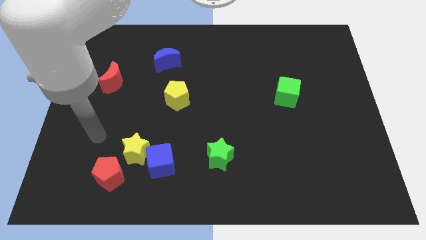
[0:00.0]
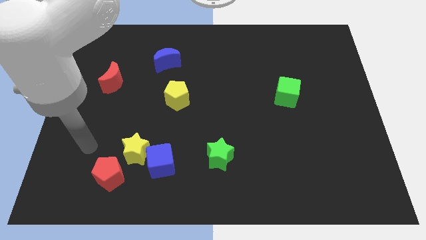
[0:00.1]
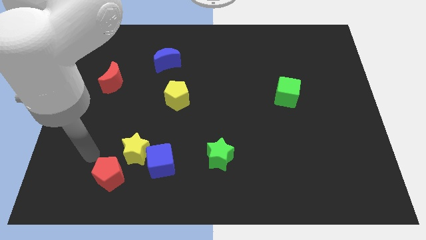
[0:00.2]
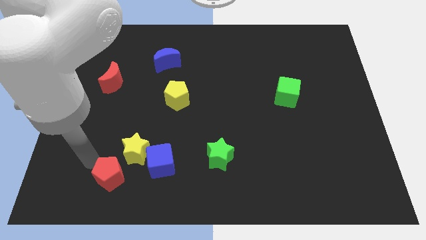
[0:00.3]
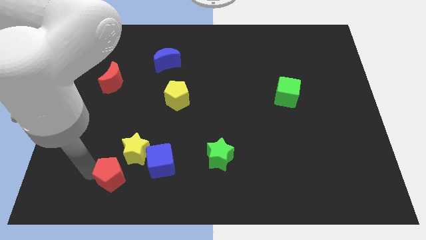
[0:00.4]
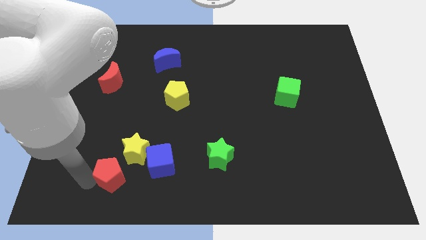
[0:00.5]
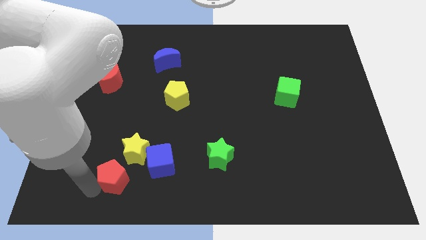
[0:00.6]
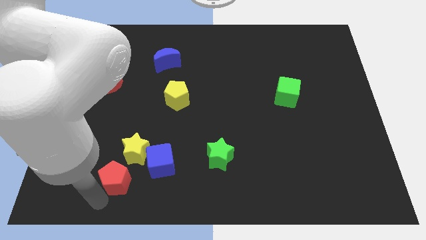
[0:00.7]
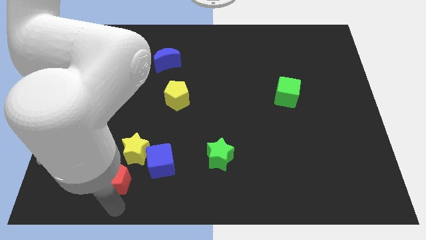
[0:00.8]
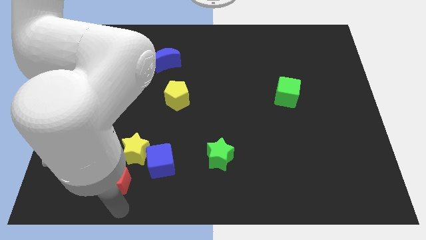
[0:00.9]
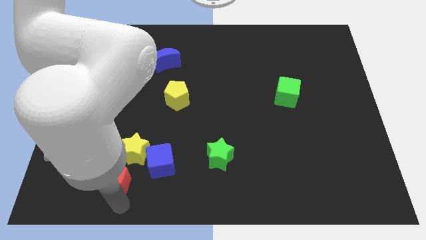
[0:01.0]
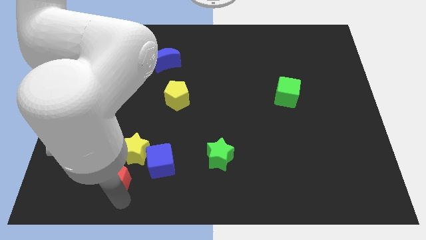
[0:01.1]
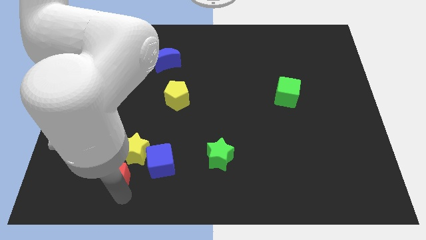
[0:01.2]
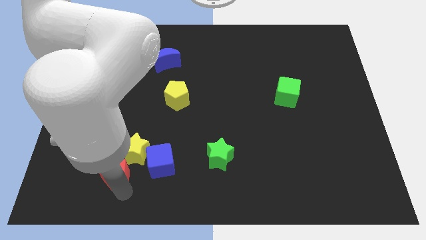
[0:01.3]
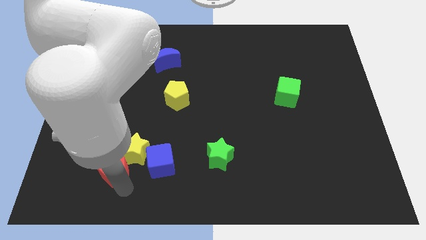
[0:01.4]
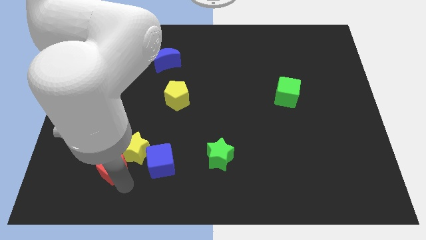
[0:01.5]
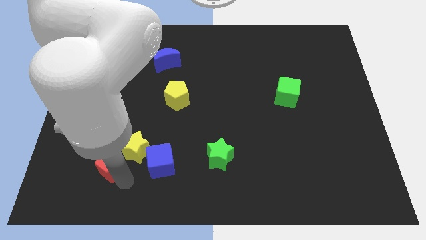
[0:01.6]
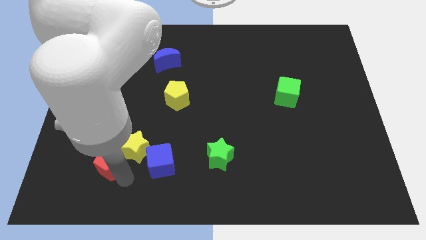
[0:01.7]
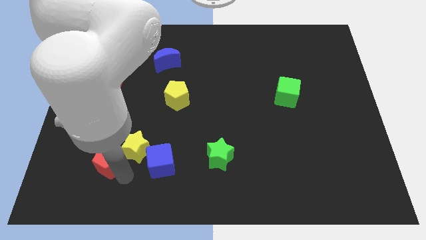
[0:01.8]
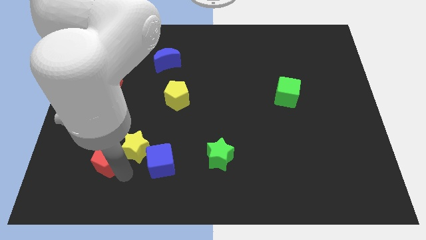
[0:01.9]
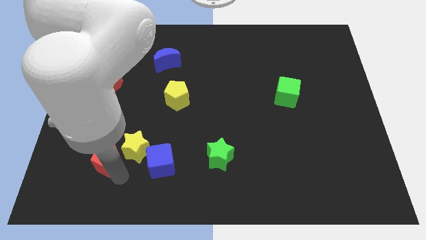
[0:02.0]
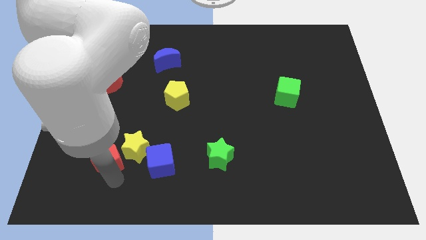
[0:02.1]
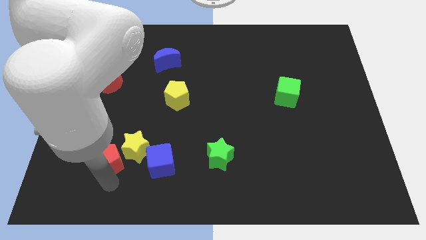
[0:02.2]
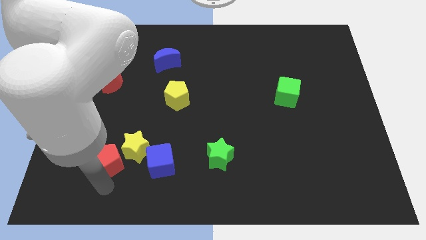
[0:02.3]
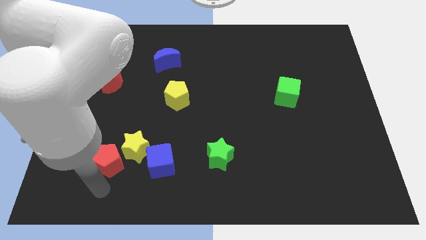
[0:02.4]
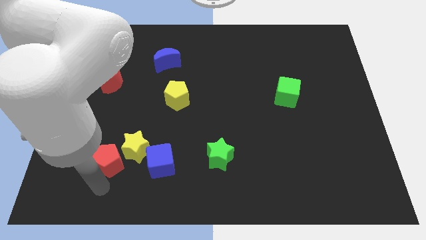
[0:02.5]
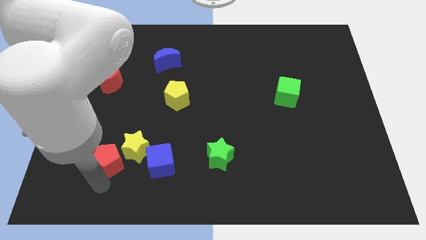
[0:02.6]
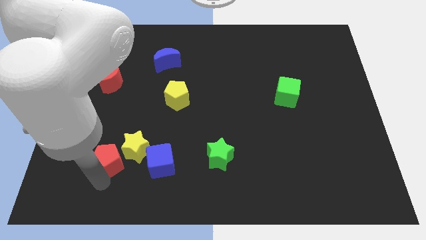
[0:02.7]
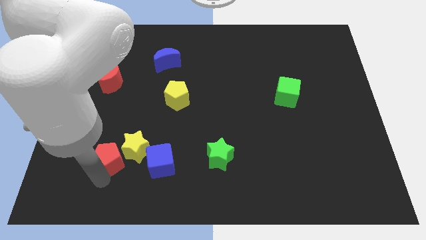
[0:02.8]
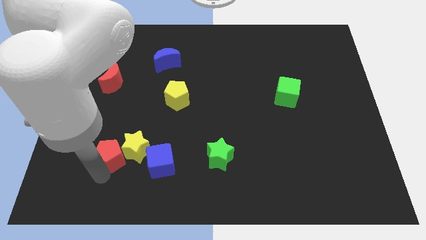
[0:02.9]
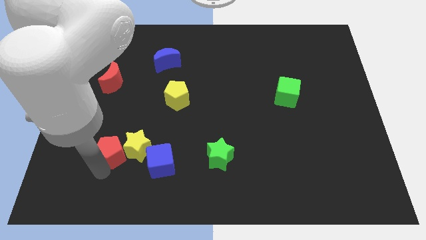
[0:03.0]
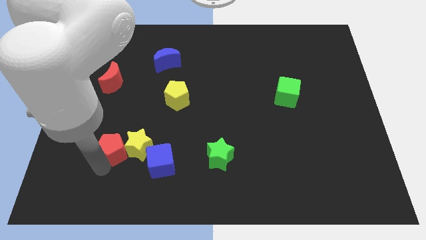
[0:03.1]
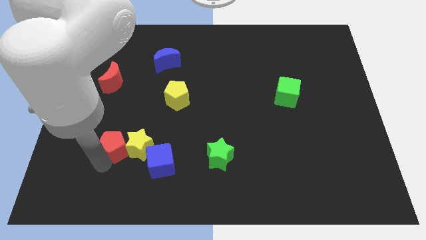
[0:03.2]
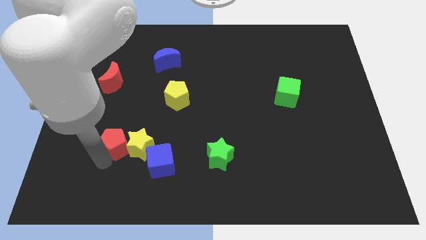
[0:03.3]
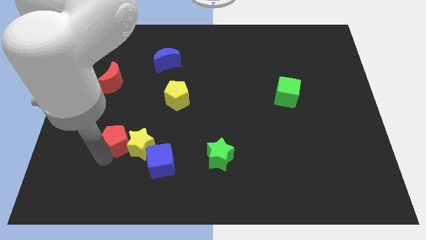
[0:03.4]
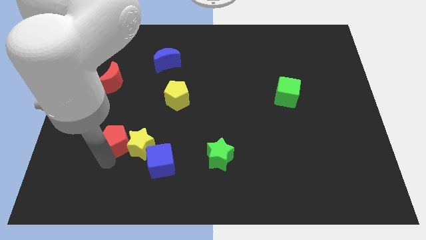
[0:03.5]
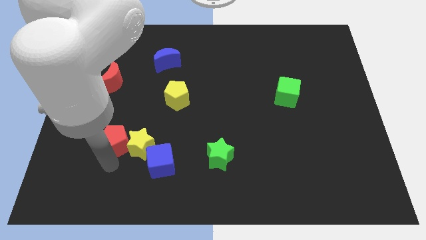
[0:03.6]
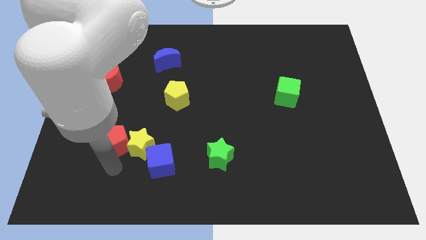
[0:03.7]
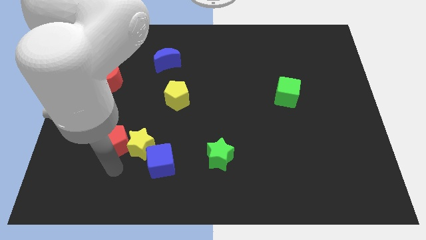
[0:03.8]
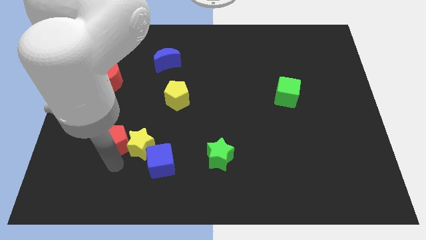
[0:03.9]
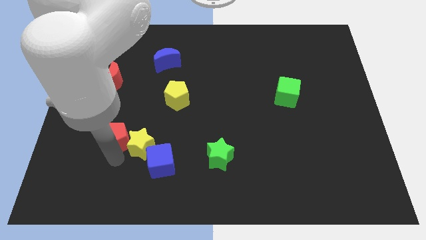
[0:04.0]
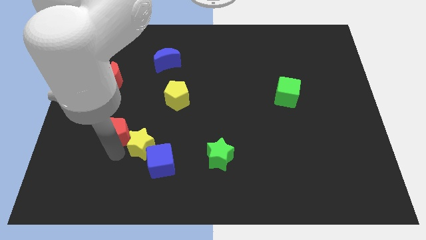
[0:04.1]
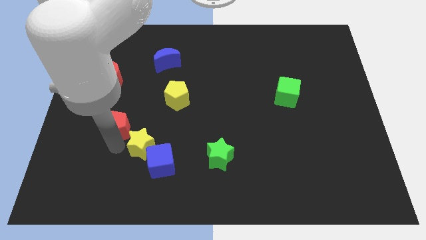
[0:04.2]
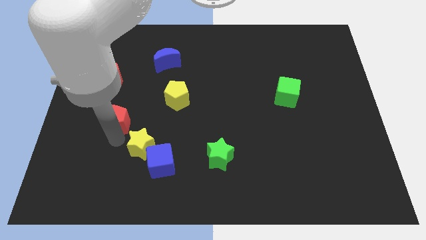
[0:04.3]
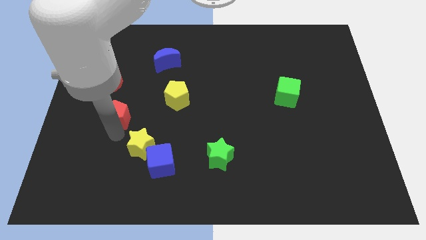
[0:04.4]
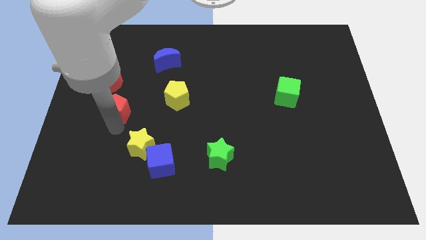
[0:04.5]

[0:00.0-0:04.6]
move the red pentagon diagonally down and to the right of the red moon

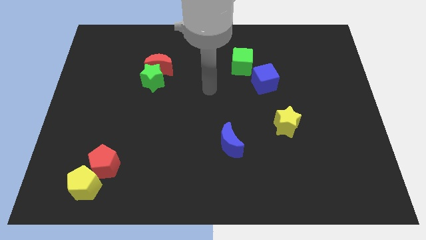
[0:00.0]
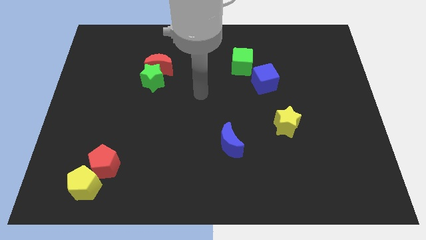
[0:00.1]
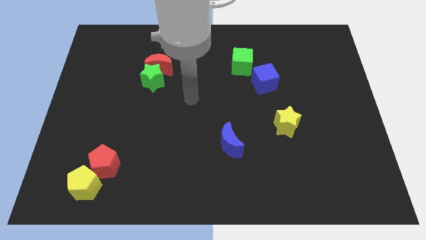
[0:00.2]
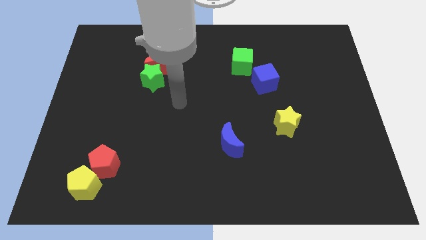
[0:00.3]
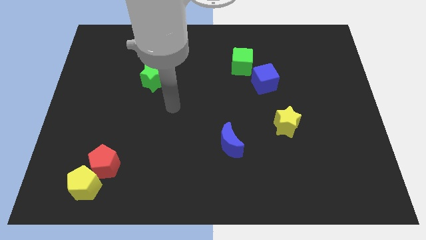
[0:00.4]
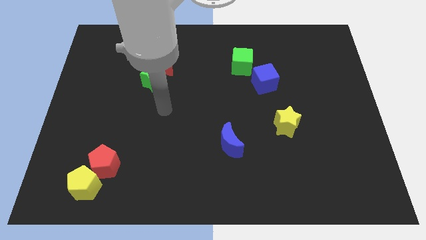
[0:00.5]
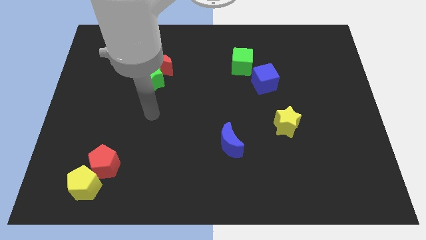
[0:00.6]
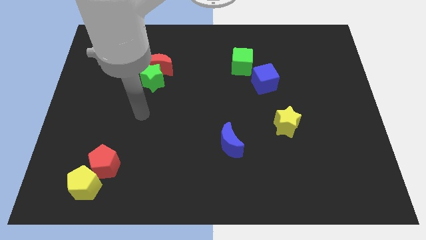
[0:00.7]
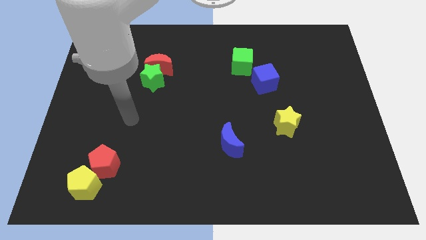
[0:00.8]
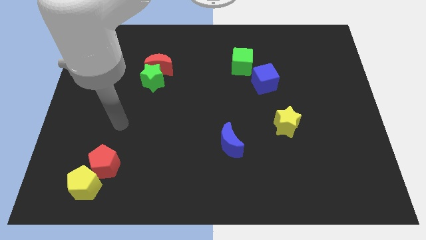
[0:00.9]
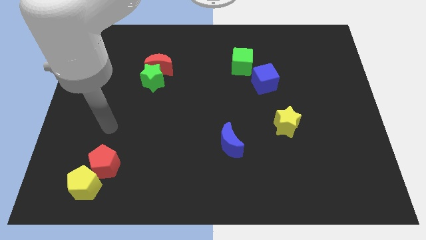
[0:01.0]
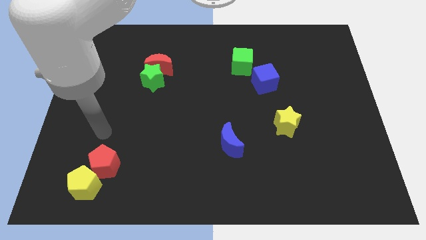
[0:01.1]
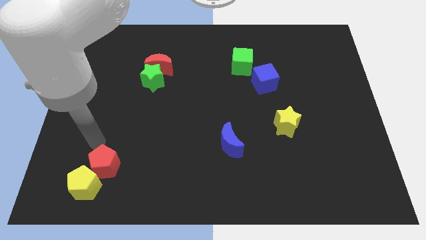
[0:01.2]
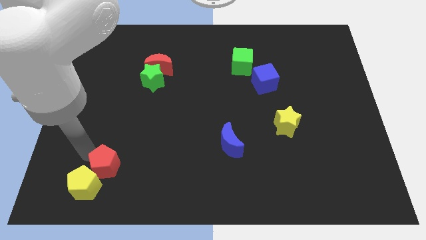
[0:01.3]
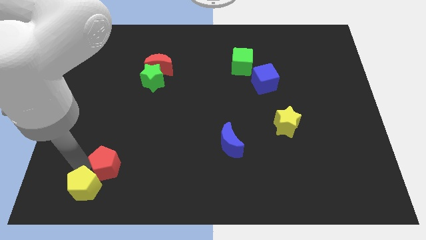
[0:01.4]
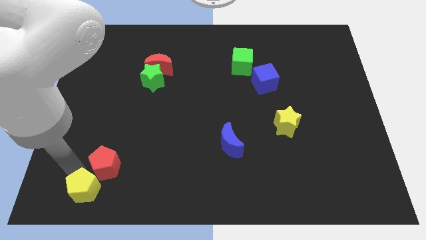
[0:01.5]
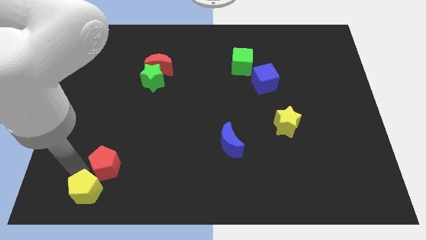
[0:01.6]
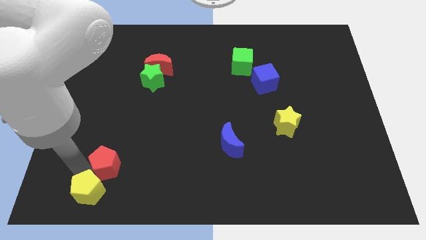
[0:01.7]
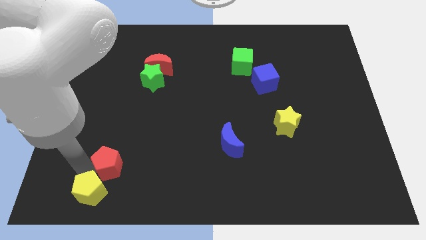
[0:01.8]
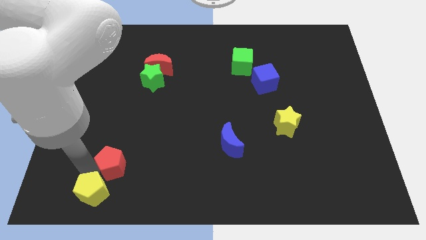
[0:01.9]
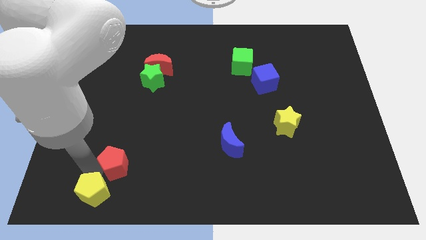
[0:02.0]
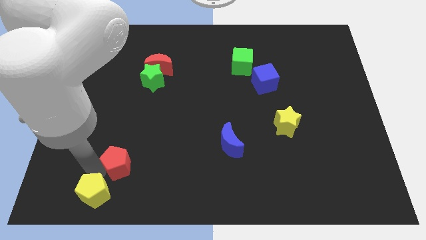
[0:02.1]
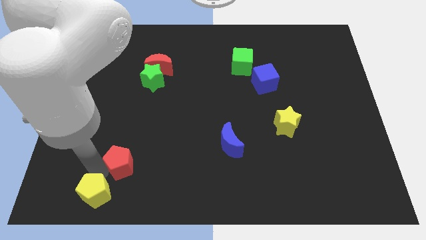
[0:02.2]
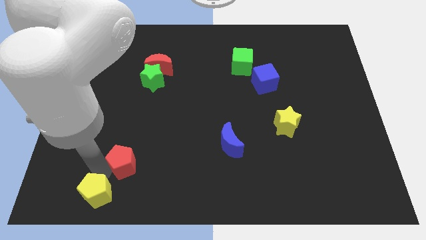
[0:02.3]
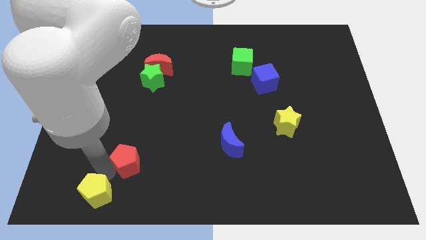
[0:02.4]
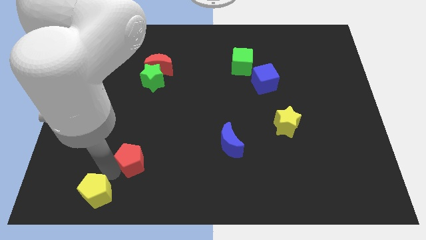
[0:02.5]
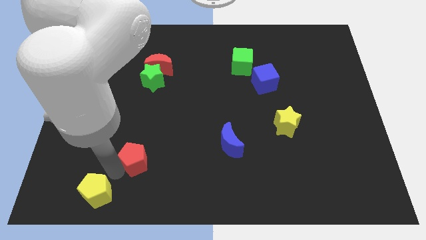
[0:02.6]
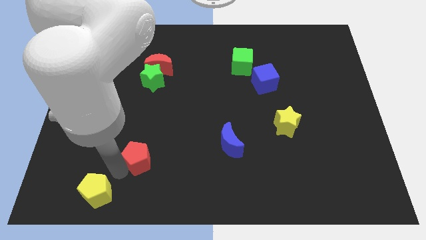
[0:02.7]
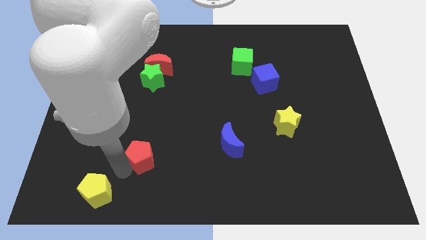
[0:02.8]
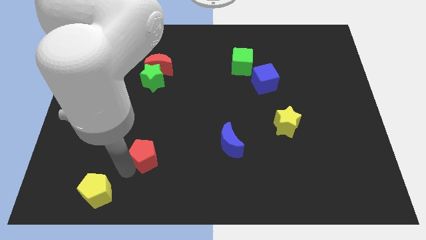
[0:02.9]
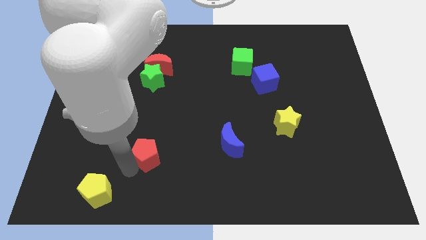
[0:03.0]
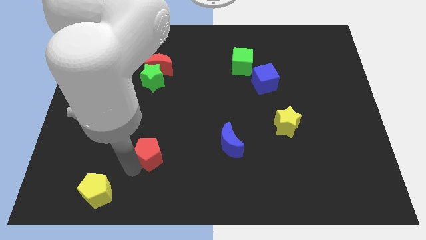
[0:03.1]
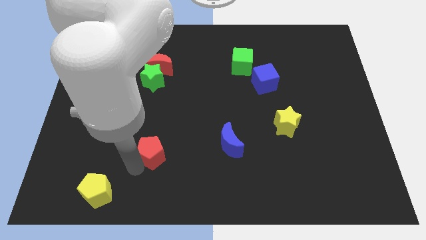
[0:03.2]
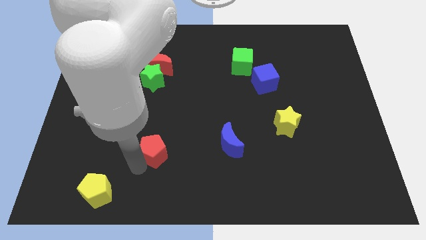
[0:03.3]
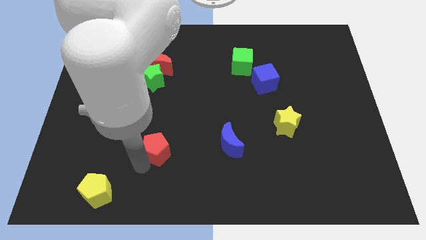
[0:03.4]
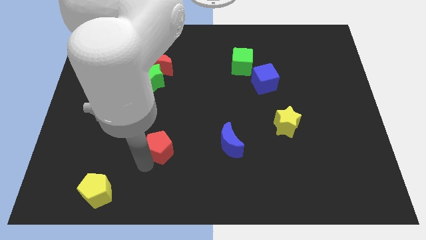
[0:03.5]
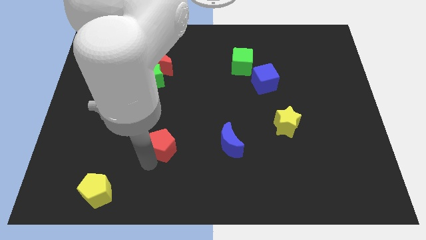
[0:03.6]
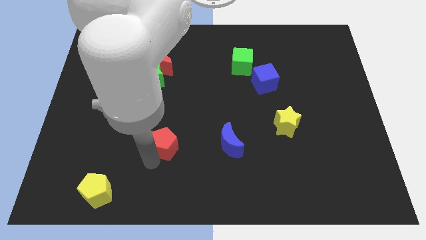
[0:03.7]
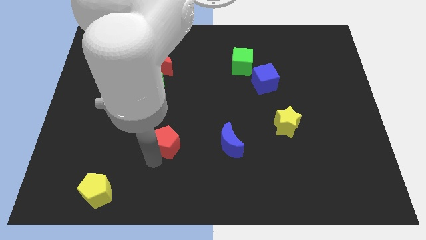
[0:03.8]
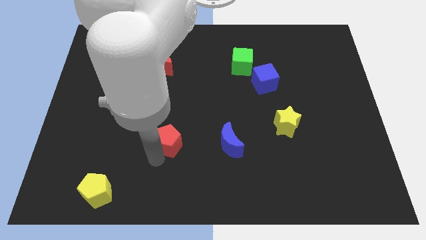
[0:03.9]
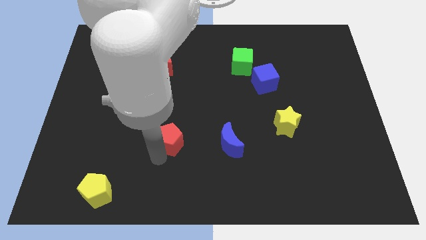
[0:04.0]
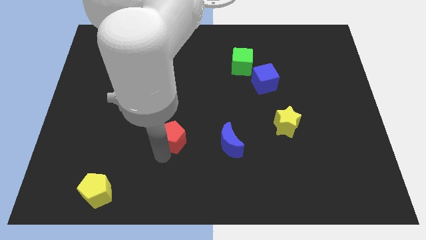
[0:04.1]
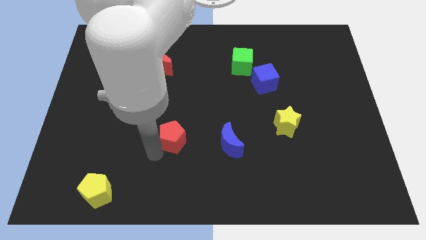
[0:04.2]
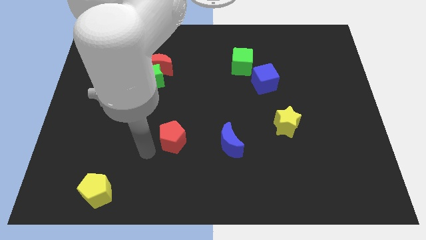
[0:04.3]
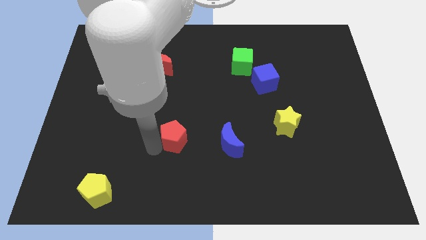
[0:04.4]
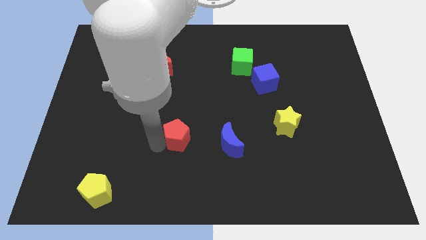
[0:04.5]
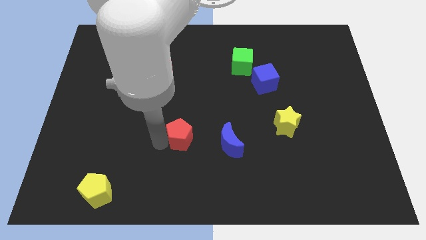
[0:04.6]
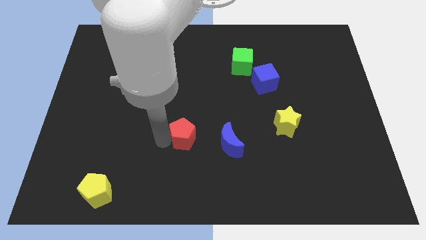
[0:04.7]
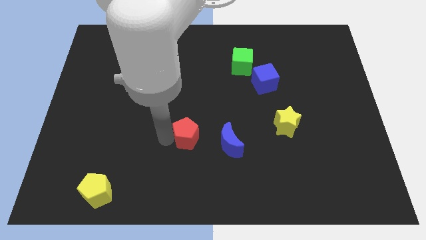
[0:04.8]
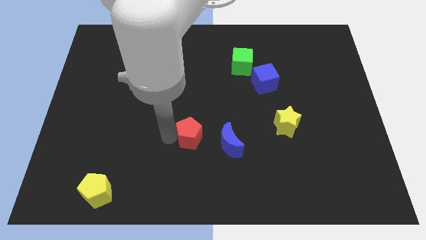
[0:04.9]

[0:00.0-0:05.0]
put the red pentagon diagonally up and to the left of the blue moon
